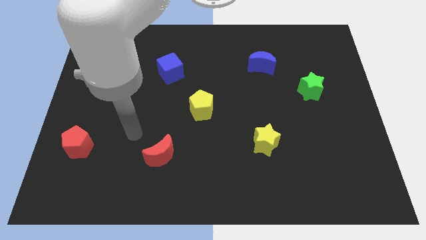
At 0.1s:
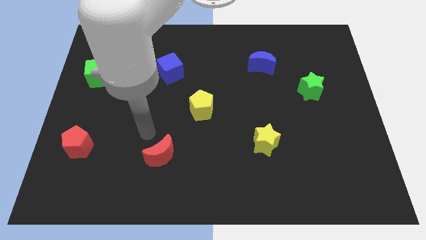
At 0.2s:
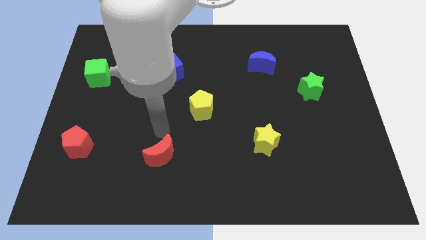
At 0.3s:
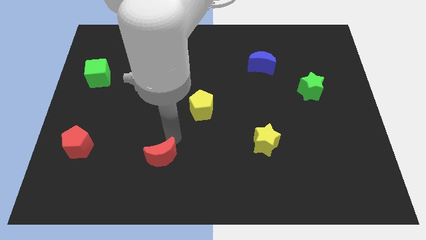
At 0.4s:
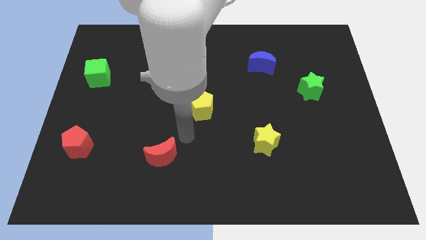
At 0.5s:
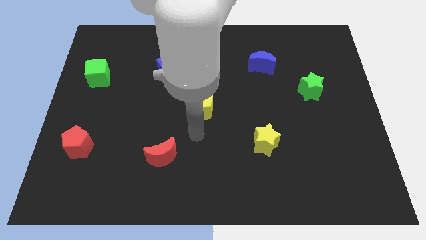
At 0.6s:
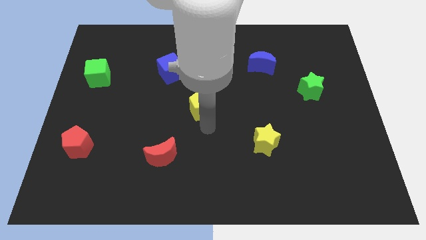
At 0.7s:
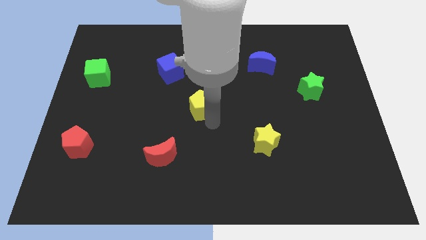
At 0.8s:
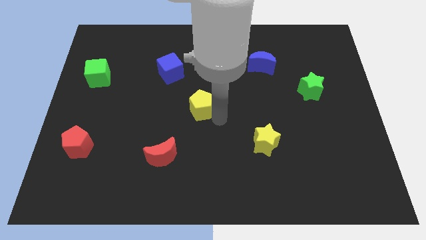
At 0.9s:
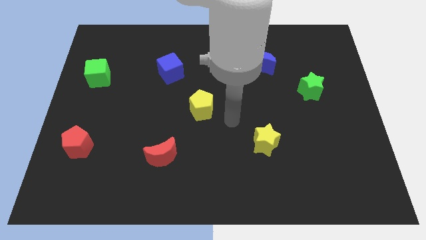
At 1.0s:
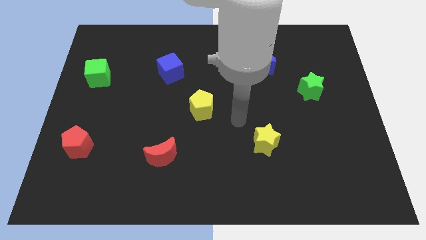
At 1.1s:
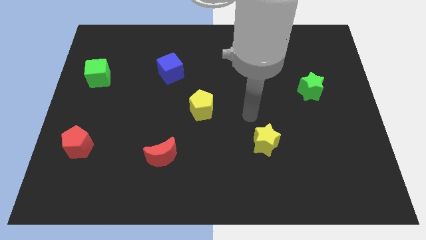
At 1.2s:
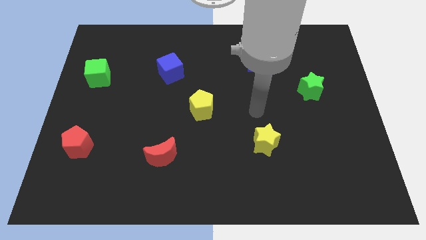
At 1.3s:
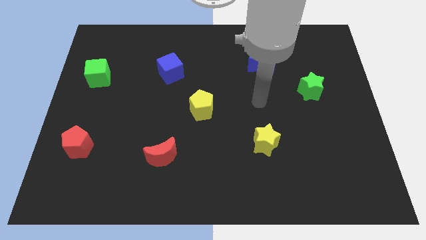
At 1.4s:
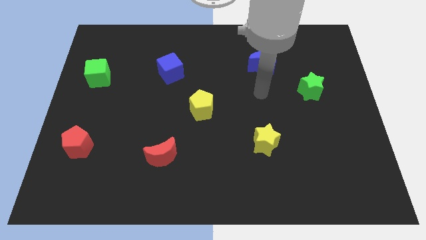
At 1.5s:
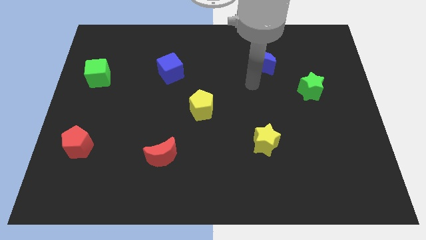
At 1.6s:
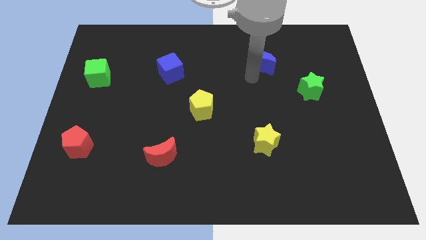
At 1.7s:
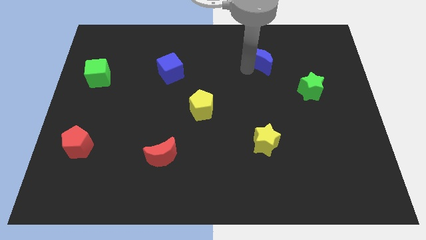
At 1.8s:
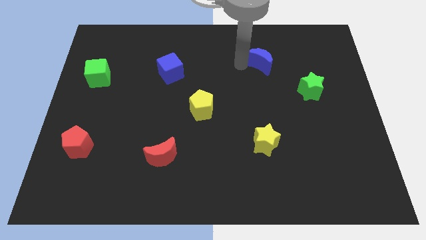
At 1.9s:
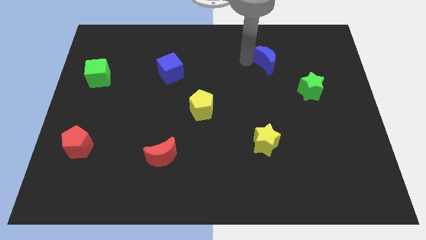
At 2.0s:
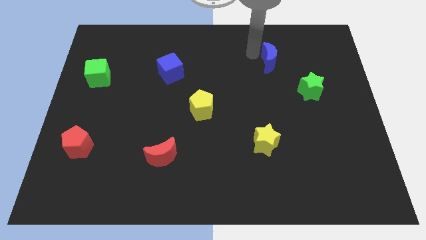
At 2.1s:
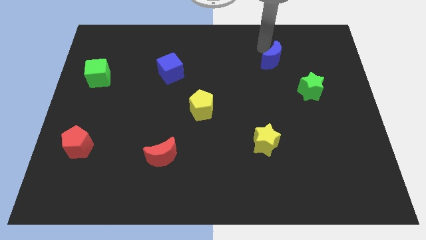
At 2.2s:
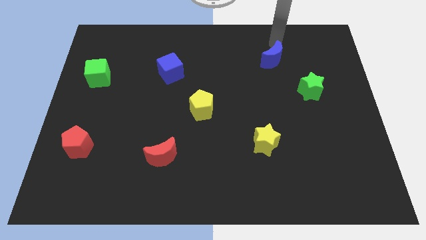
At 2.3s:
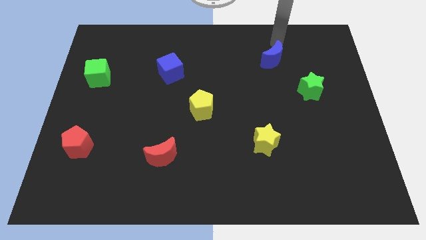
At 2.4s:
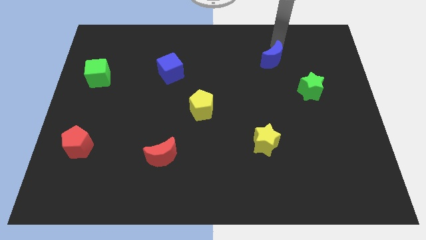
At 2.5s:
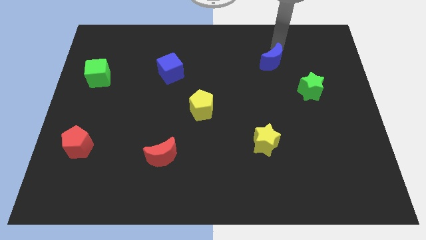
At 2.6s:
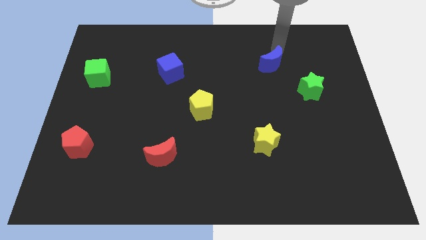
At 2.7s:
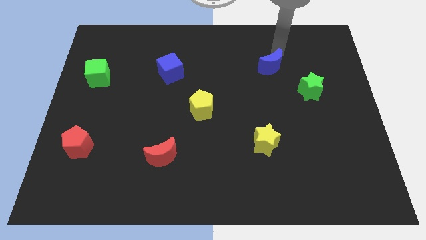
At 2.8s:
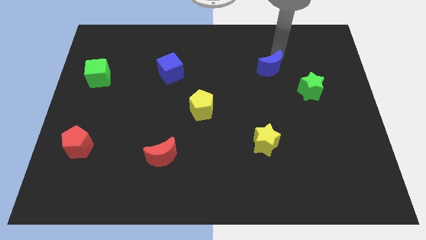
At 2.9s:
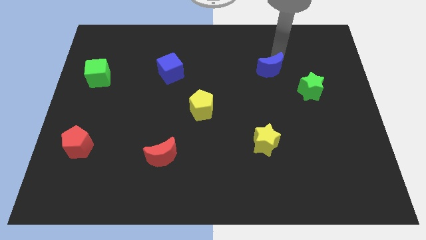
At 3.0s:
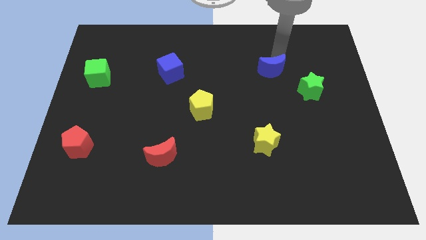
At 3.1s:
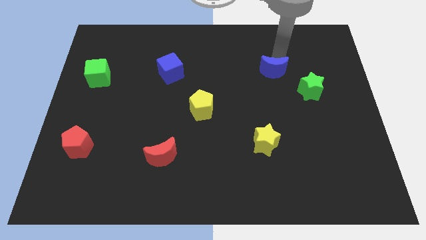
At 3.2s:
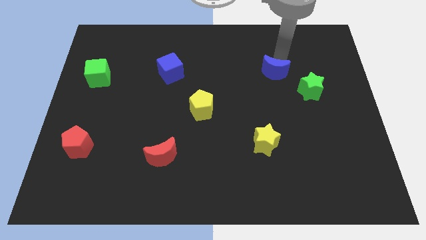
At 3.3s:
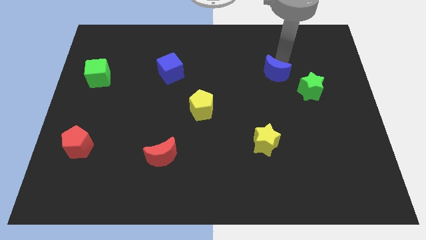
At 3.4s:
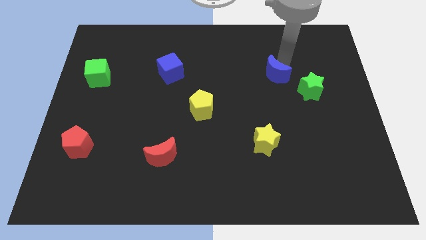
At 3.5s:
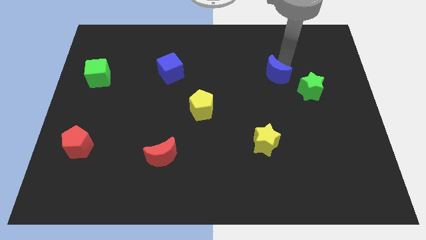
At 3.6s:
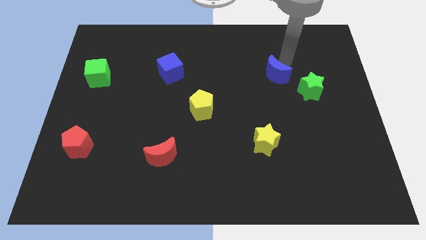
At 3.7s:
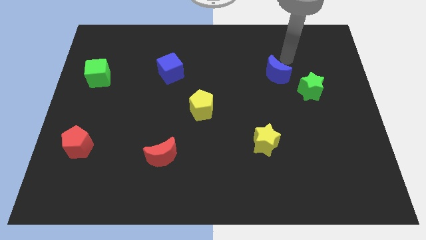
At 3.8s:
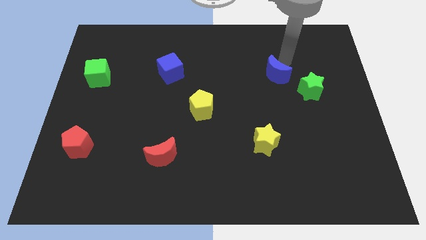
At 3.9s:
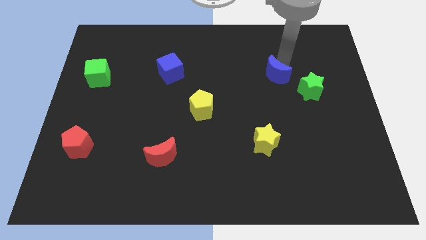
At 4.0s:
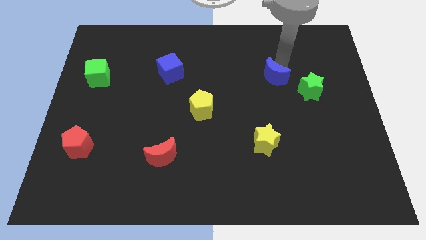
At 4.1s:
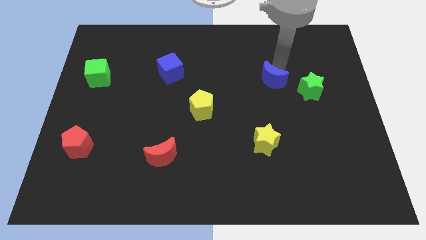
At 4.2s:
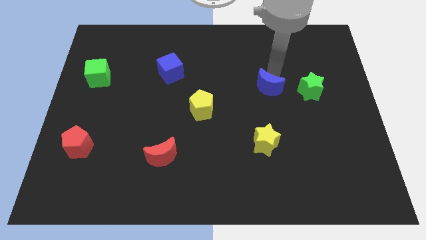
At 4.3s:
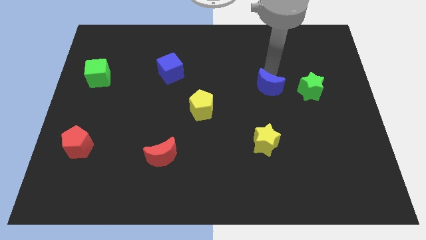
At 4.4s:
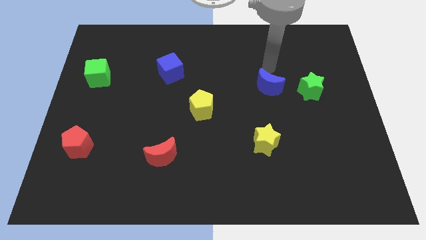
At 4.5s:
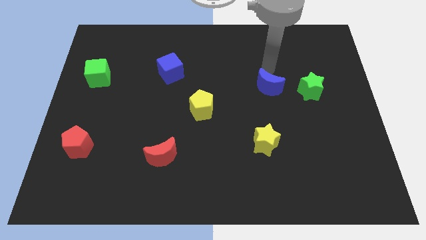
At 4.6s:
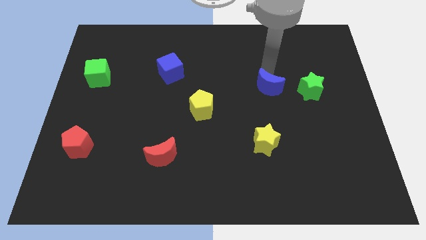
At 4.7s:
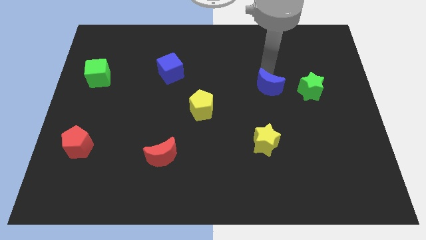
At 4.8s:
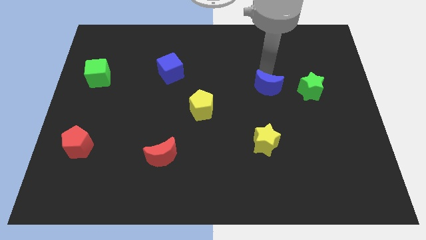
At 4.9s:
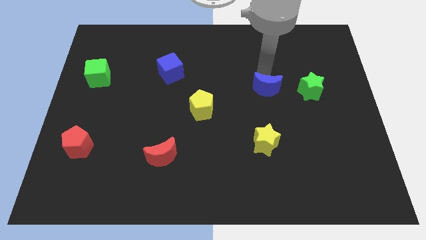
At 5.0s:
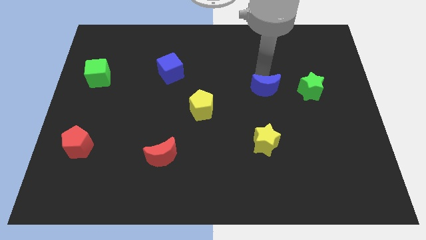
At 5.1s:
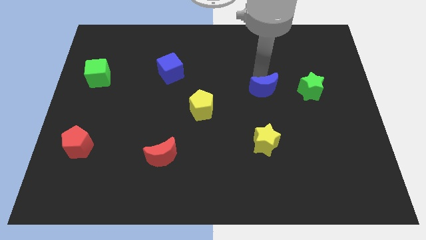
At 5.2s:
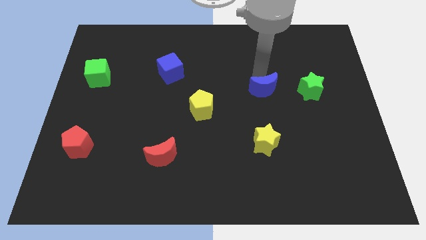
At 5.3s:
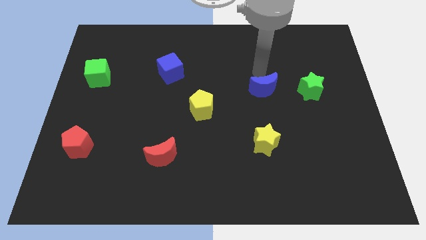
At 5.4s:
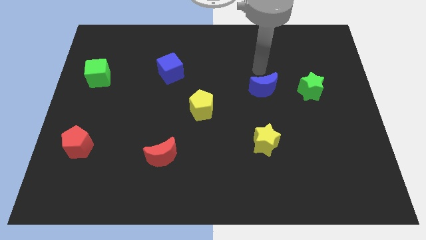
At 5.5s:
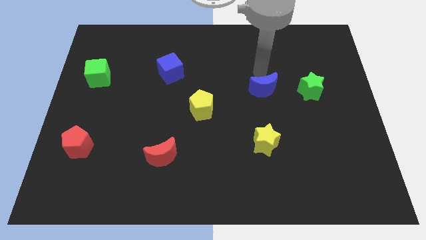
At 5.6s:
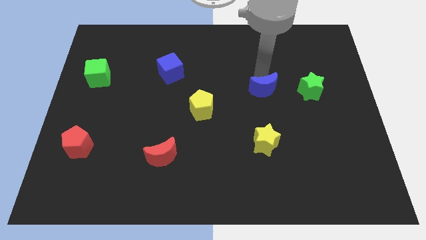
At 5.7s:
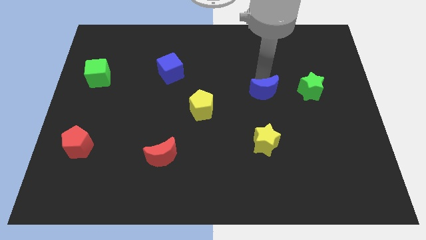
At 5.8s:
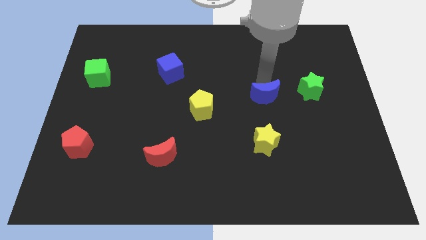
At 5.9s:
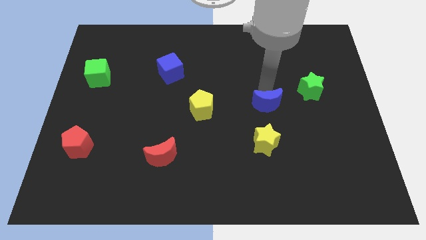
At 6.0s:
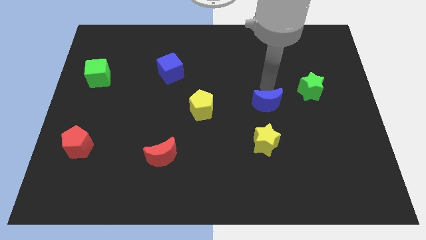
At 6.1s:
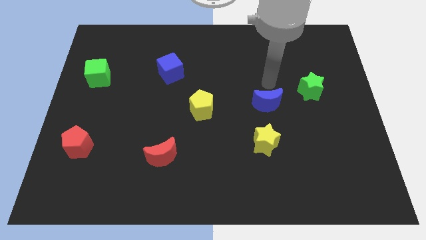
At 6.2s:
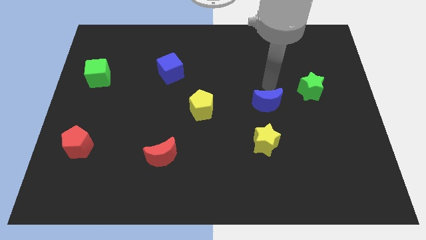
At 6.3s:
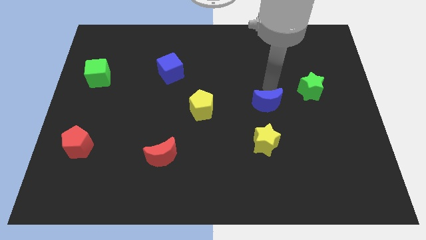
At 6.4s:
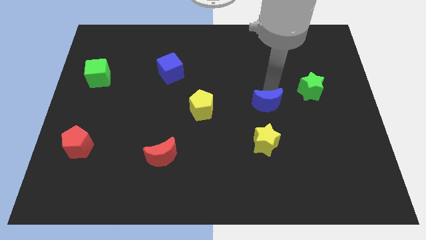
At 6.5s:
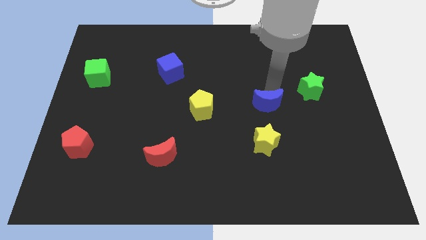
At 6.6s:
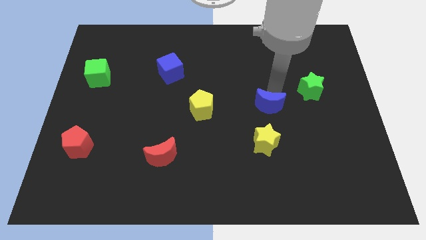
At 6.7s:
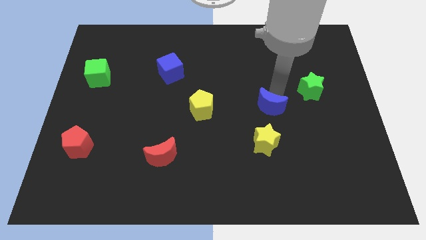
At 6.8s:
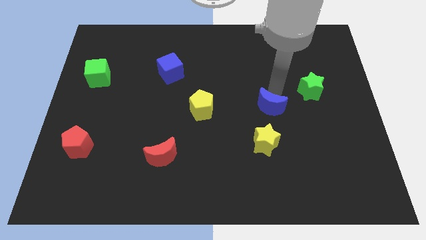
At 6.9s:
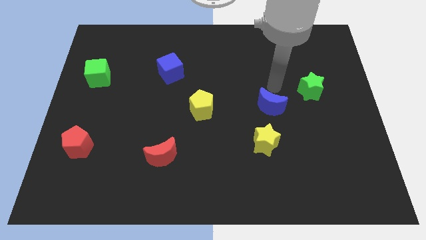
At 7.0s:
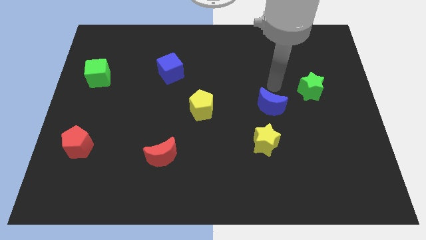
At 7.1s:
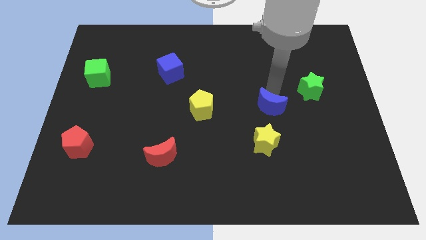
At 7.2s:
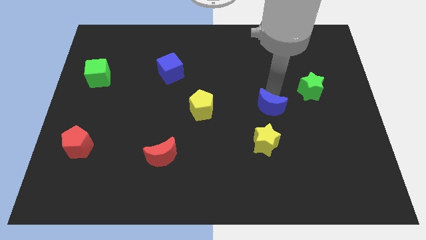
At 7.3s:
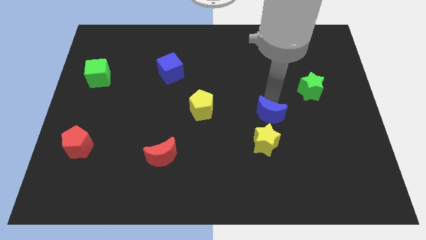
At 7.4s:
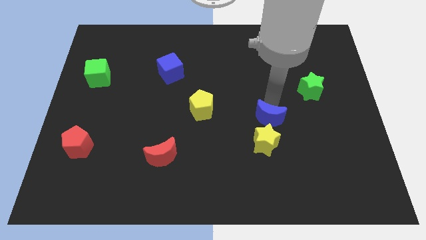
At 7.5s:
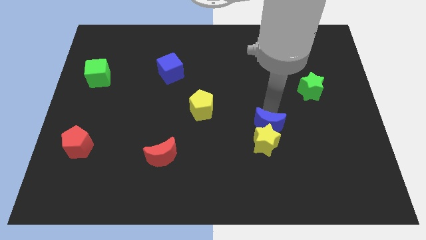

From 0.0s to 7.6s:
push the blue moon next to the yellow star
